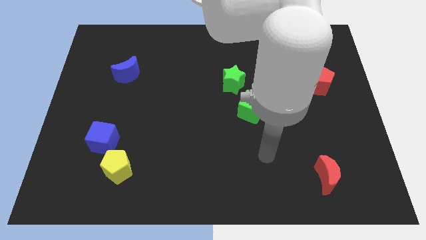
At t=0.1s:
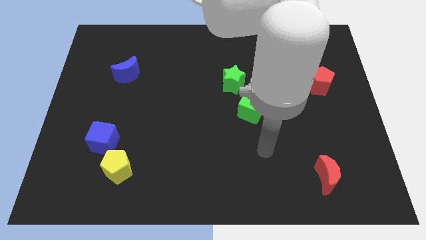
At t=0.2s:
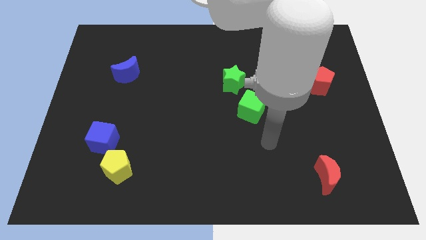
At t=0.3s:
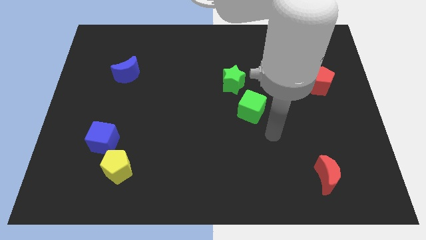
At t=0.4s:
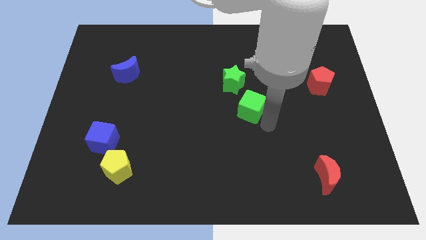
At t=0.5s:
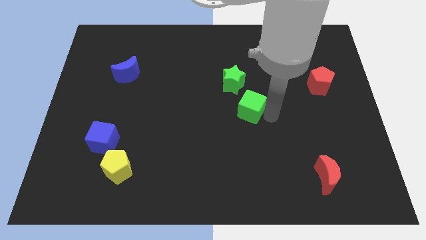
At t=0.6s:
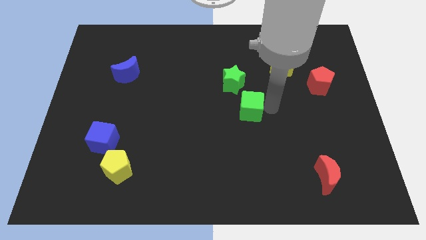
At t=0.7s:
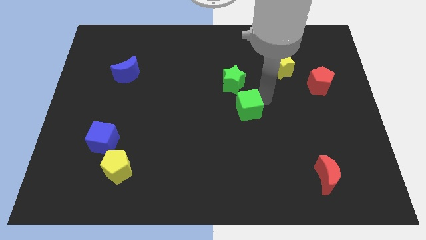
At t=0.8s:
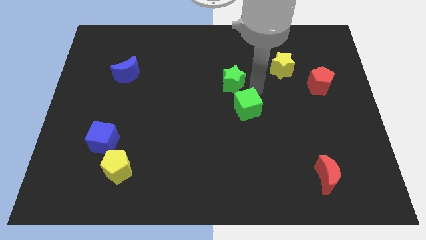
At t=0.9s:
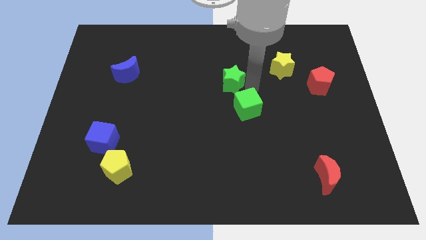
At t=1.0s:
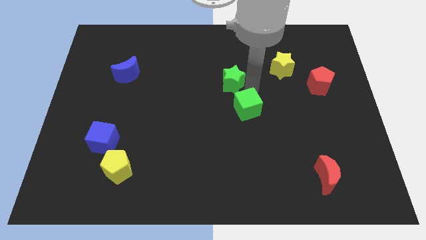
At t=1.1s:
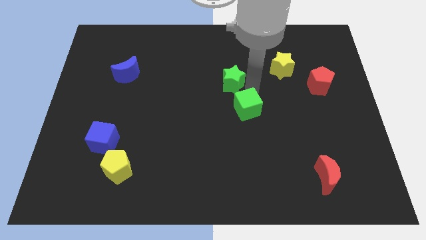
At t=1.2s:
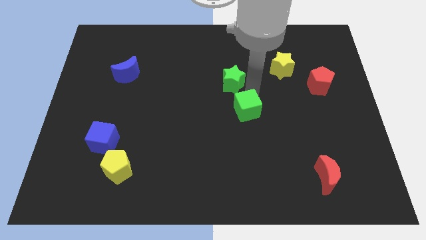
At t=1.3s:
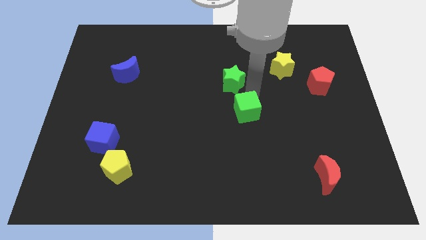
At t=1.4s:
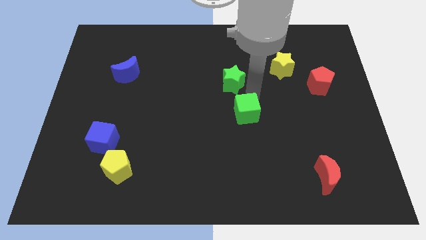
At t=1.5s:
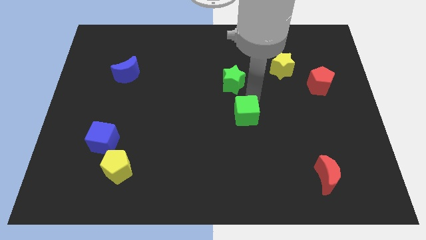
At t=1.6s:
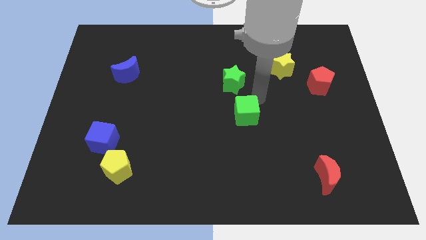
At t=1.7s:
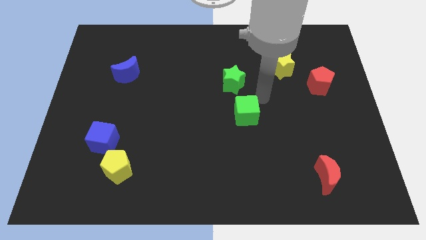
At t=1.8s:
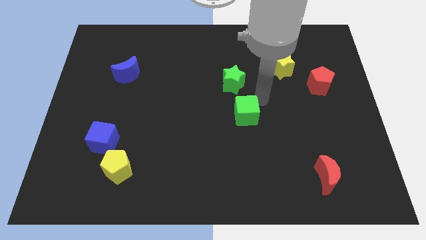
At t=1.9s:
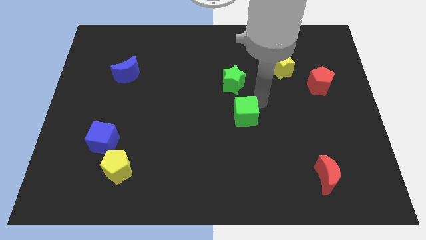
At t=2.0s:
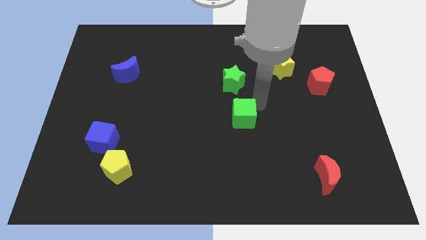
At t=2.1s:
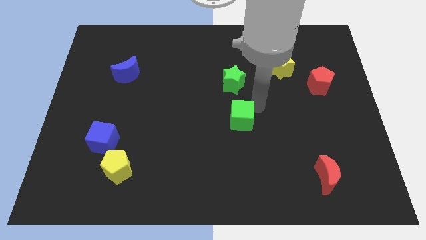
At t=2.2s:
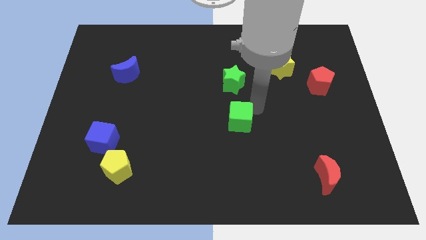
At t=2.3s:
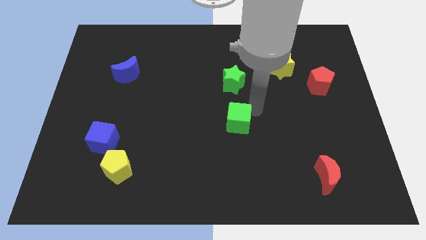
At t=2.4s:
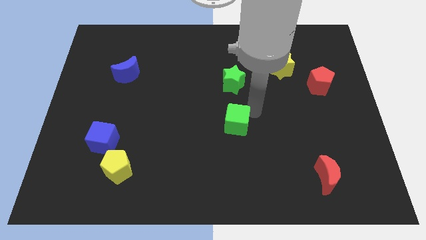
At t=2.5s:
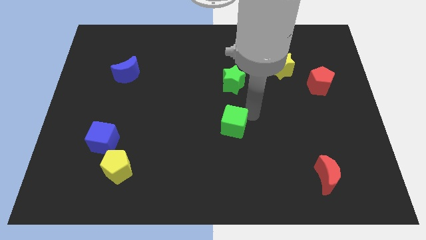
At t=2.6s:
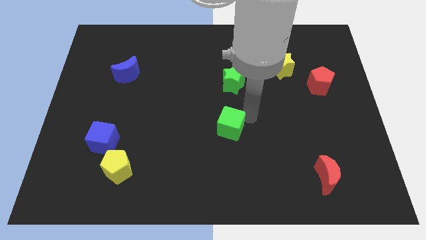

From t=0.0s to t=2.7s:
slide the green cube somewhat downwards and to the left diagonally

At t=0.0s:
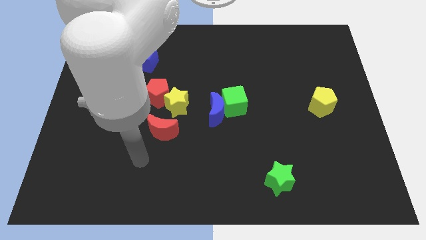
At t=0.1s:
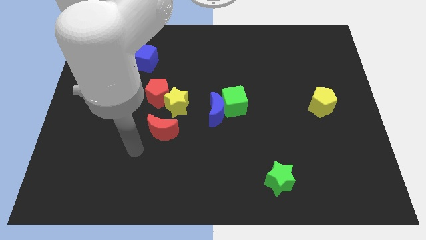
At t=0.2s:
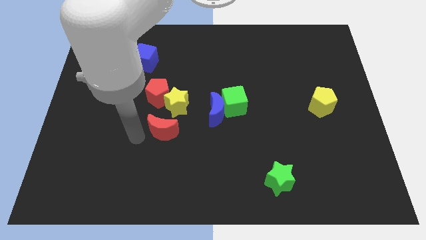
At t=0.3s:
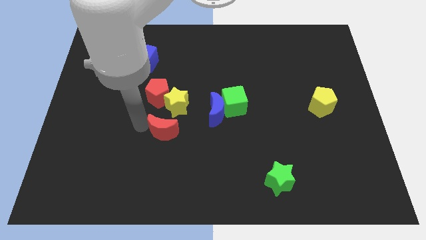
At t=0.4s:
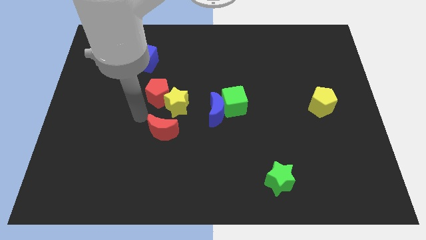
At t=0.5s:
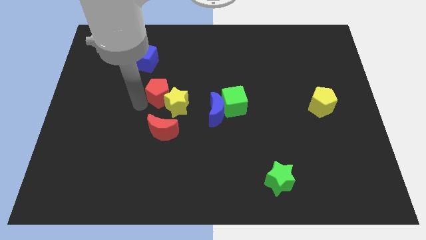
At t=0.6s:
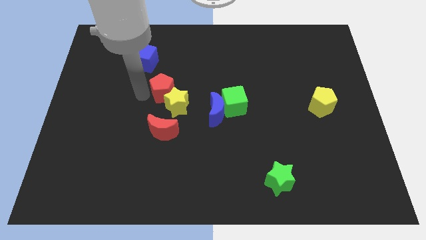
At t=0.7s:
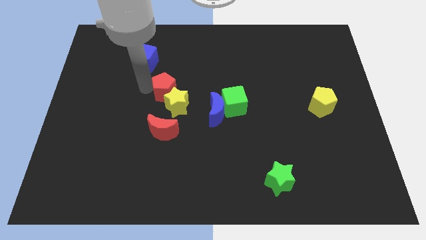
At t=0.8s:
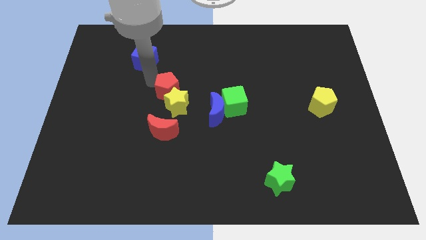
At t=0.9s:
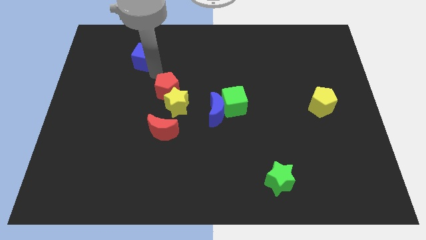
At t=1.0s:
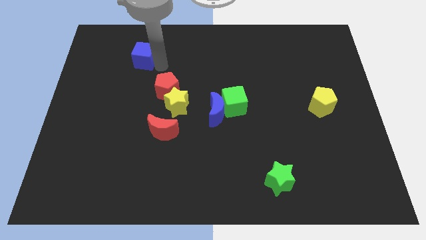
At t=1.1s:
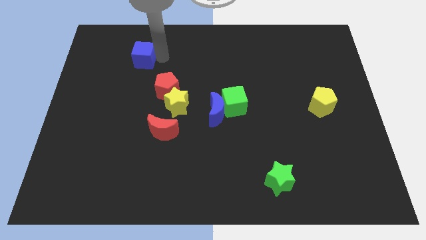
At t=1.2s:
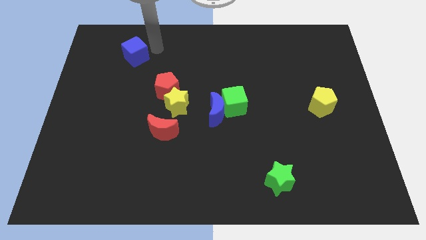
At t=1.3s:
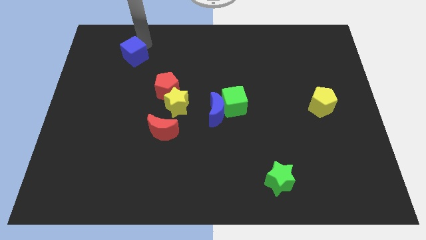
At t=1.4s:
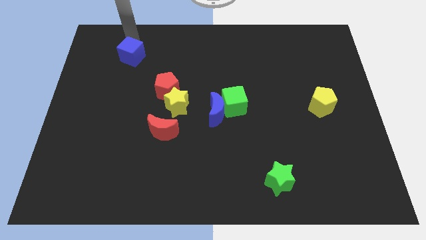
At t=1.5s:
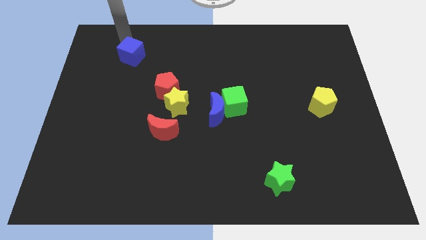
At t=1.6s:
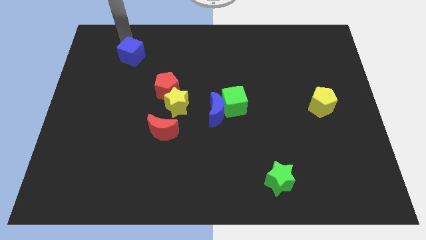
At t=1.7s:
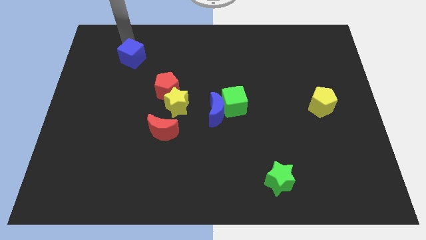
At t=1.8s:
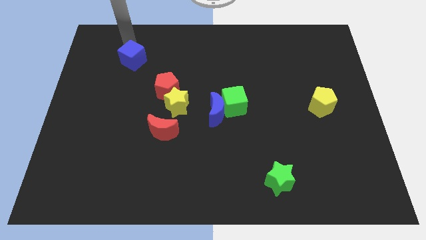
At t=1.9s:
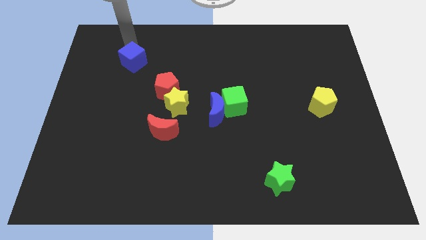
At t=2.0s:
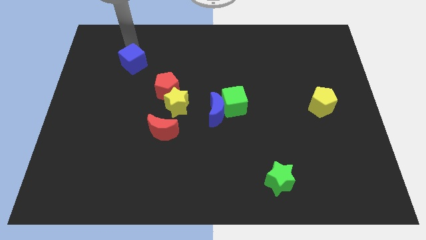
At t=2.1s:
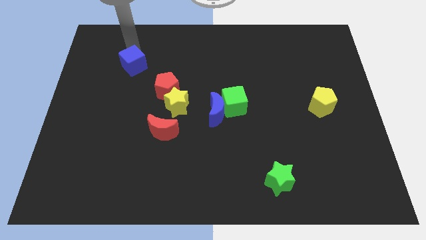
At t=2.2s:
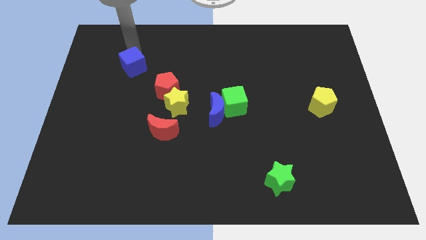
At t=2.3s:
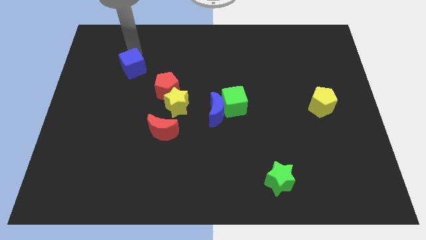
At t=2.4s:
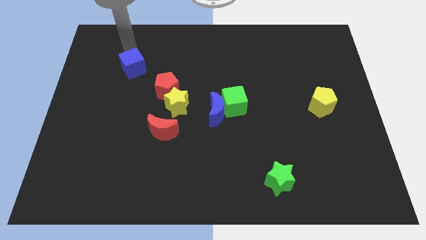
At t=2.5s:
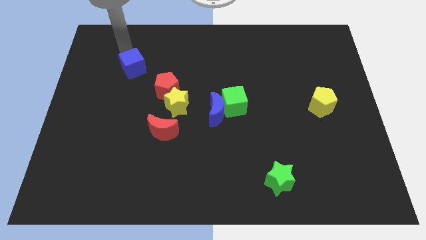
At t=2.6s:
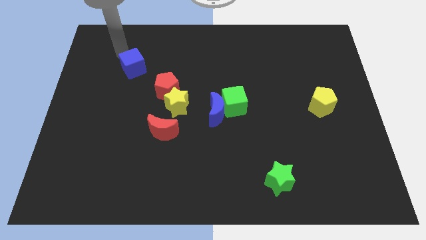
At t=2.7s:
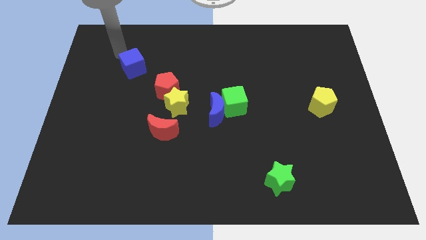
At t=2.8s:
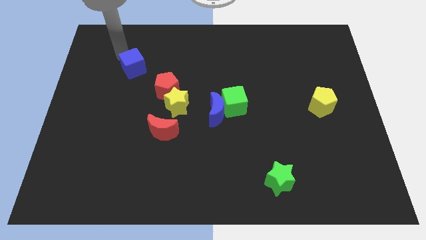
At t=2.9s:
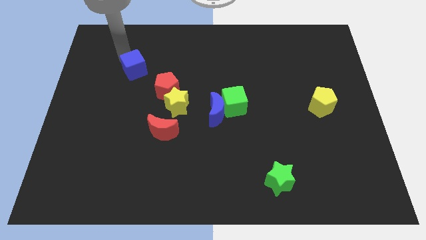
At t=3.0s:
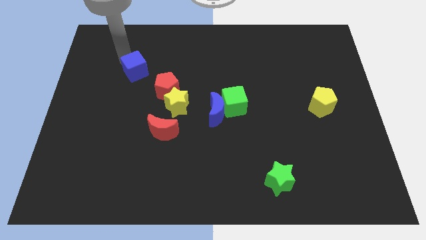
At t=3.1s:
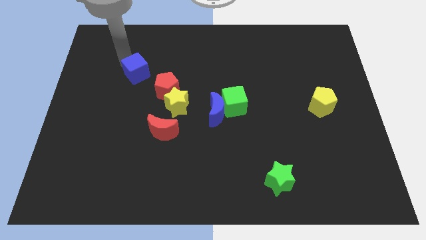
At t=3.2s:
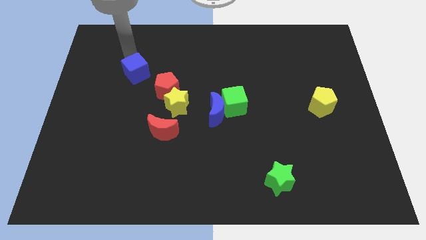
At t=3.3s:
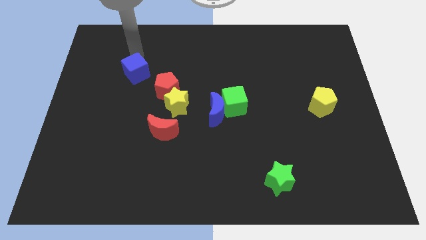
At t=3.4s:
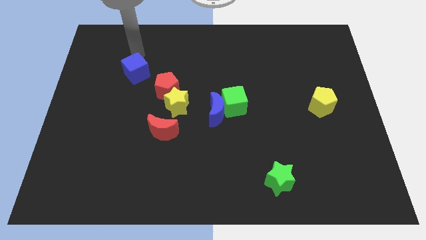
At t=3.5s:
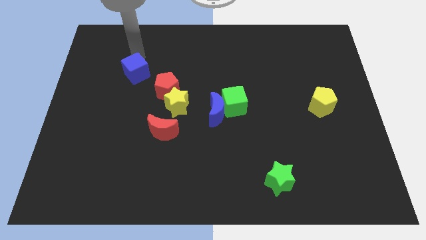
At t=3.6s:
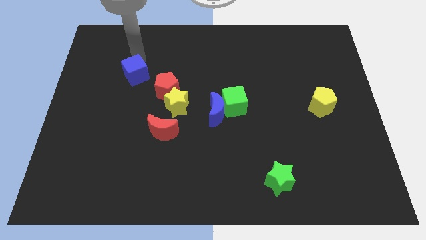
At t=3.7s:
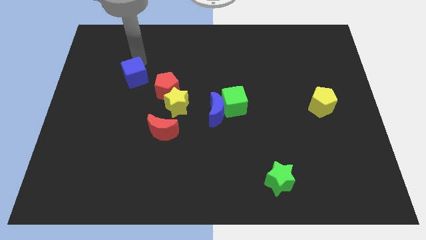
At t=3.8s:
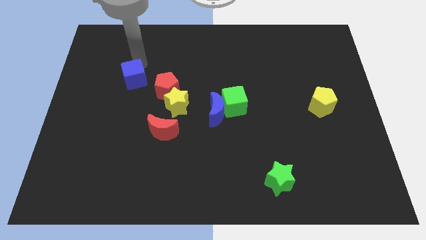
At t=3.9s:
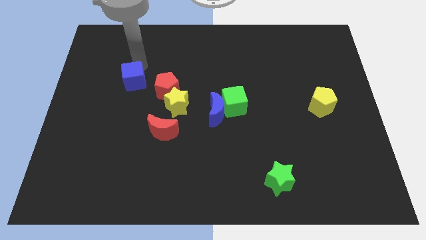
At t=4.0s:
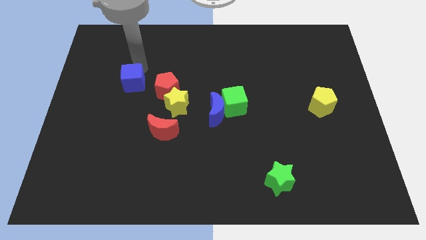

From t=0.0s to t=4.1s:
push the blue cube down a little

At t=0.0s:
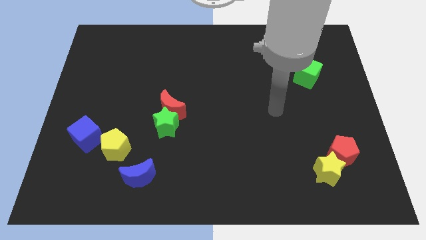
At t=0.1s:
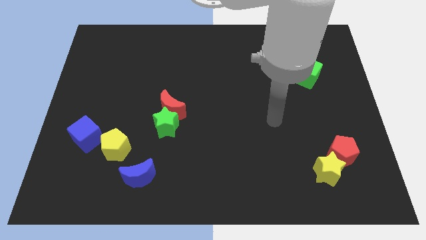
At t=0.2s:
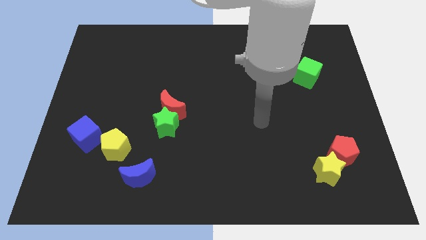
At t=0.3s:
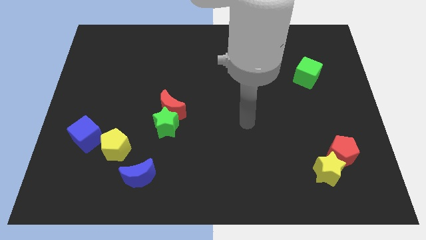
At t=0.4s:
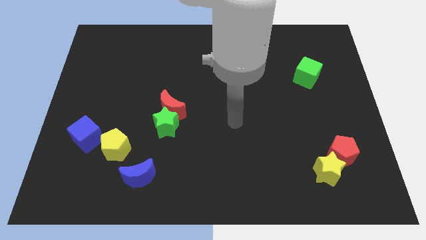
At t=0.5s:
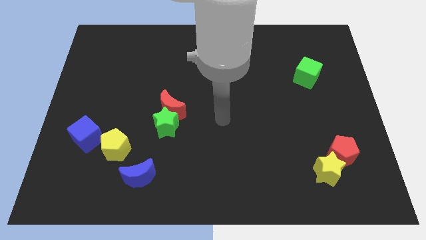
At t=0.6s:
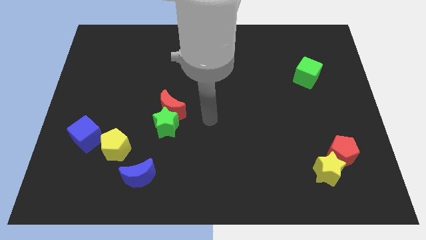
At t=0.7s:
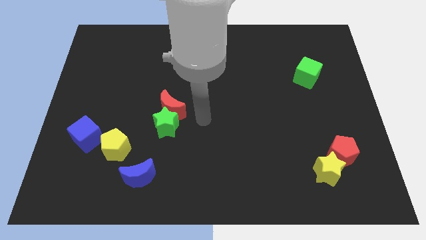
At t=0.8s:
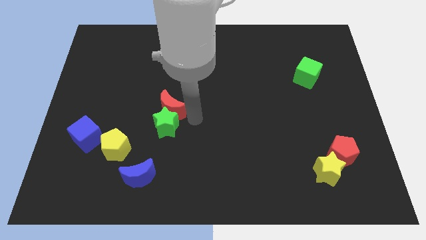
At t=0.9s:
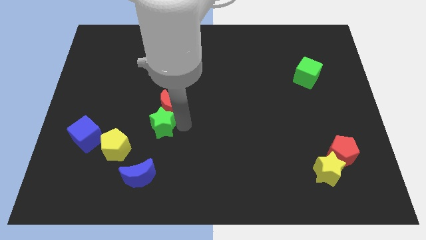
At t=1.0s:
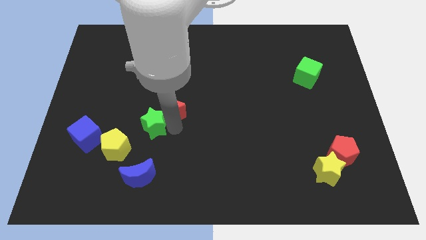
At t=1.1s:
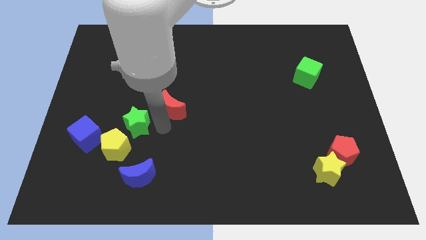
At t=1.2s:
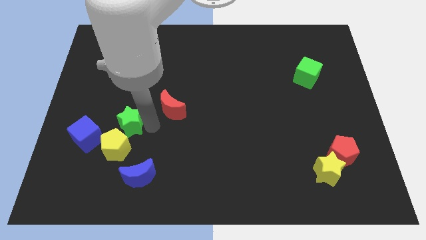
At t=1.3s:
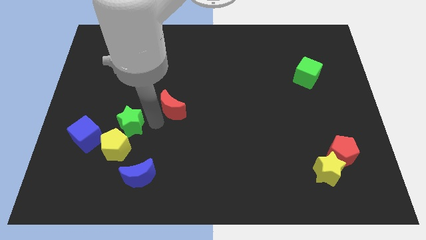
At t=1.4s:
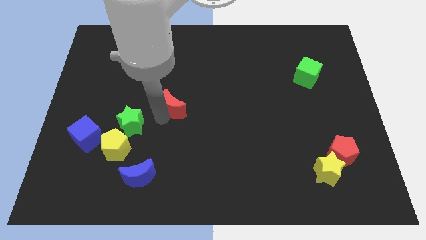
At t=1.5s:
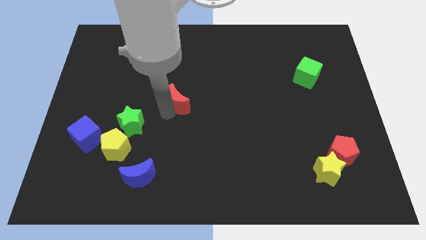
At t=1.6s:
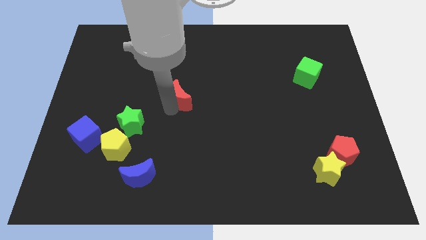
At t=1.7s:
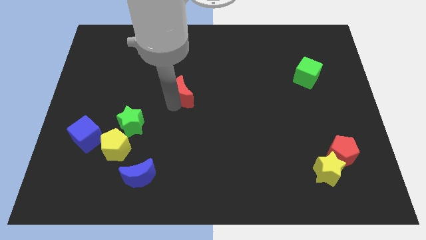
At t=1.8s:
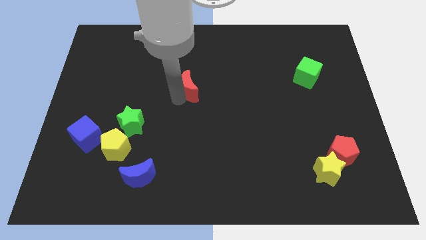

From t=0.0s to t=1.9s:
slide the red moon upwards and to the right a little bit
